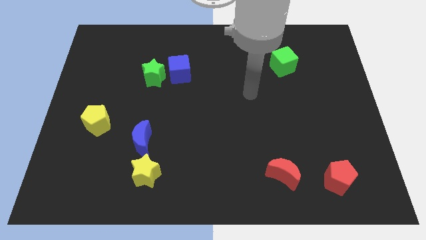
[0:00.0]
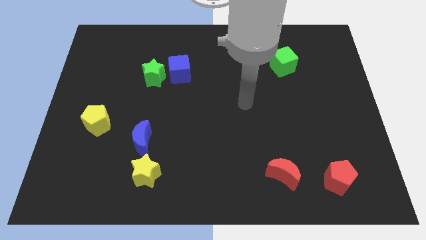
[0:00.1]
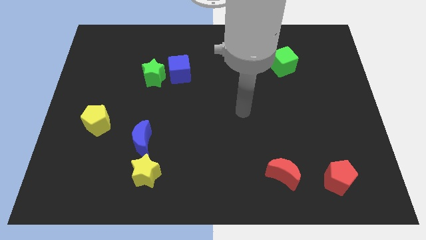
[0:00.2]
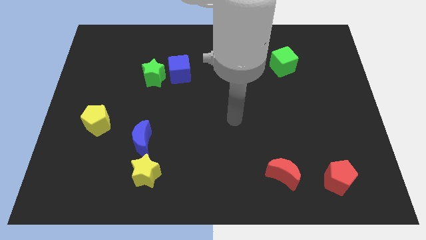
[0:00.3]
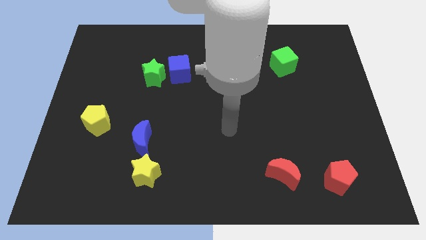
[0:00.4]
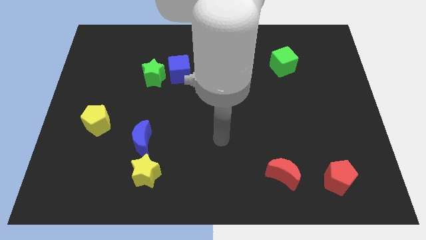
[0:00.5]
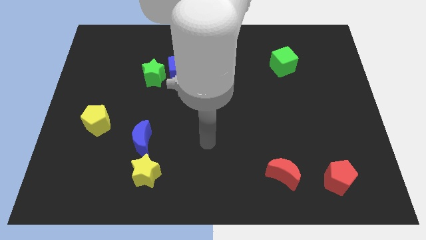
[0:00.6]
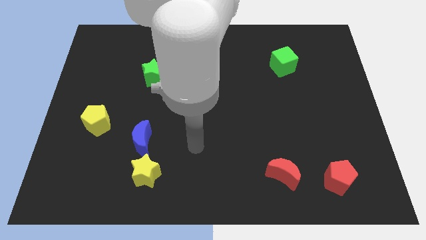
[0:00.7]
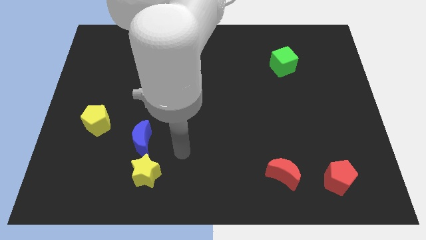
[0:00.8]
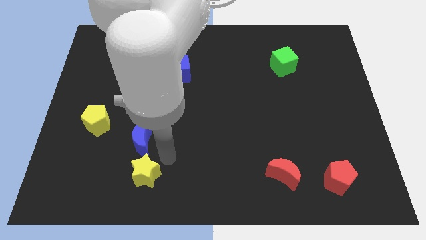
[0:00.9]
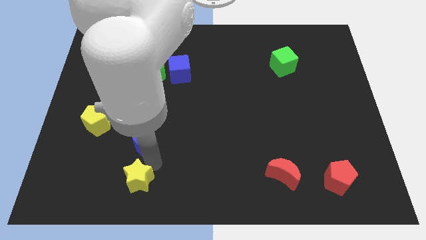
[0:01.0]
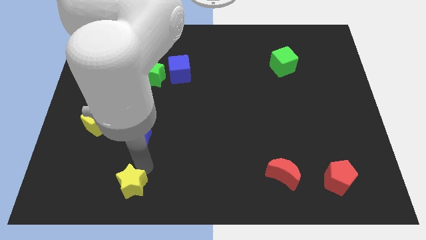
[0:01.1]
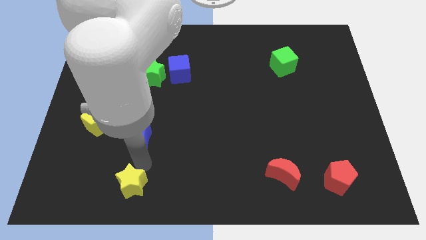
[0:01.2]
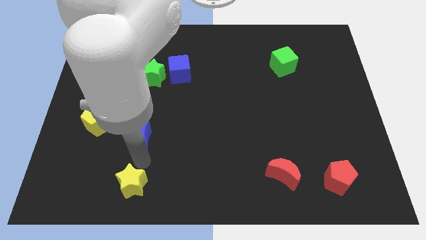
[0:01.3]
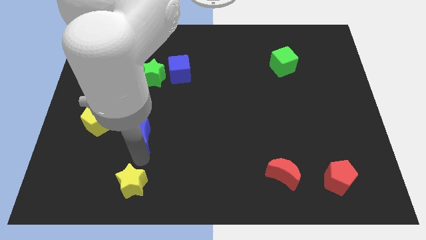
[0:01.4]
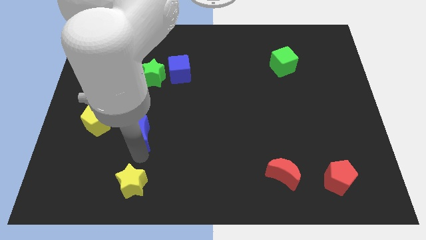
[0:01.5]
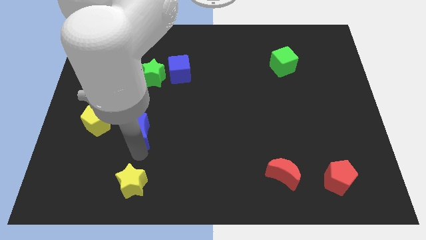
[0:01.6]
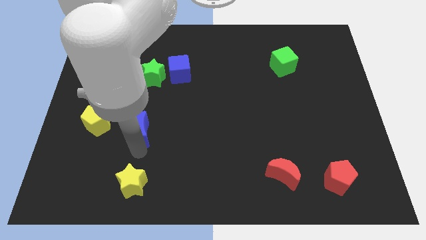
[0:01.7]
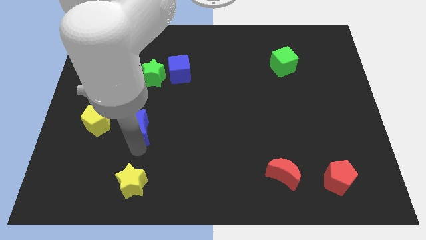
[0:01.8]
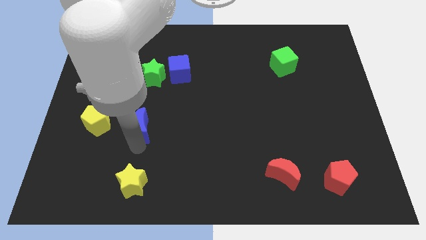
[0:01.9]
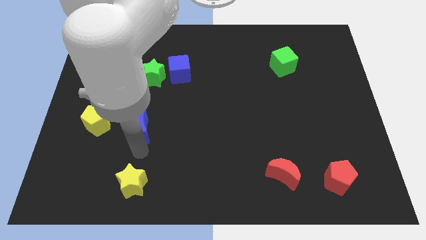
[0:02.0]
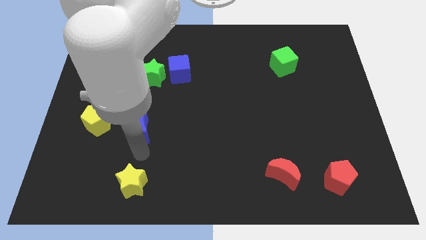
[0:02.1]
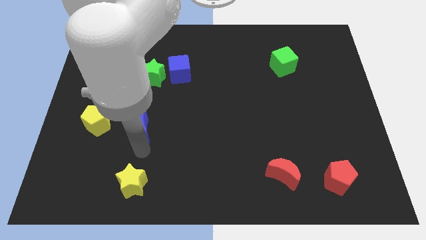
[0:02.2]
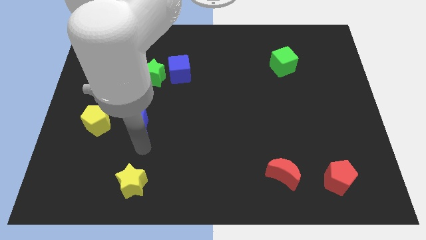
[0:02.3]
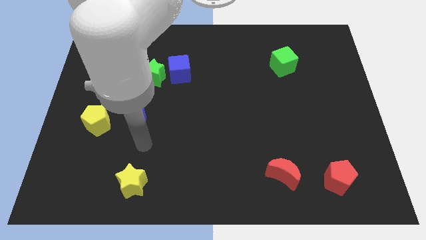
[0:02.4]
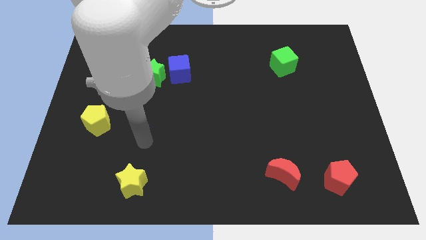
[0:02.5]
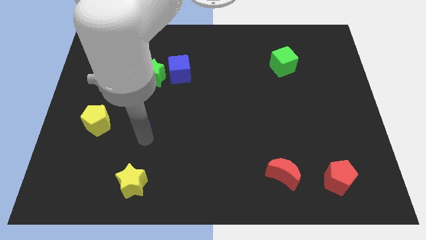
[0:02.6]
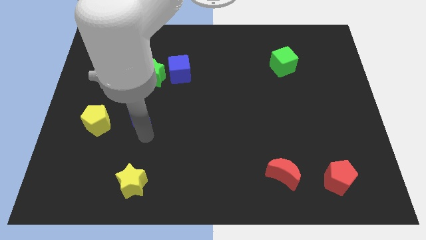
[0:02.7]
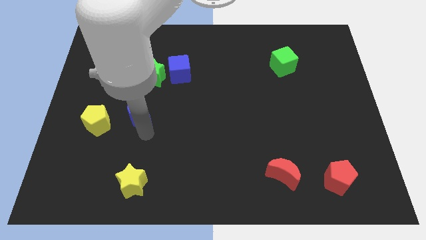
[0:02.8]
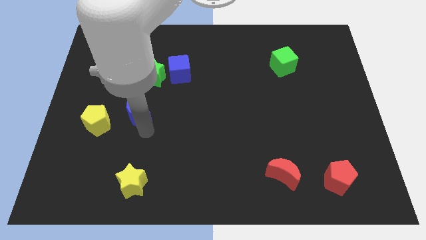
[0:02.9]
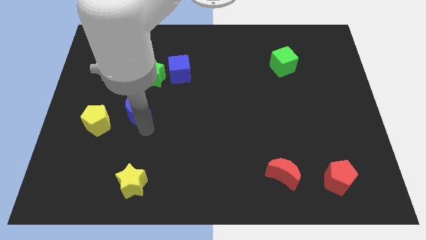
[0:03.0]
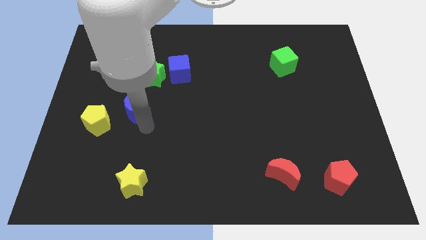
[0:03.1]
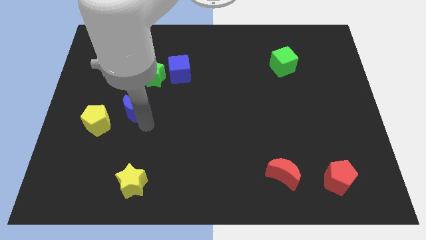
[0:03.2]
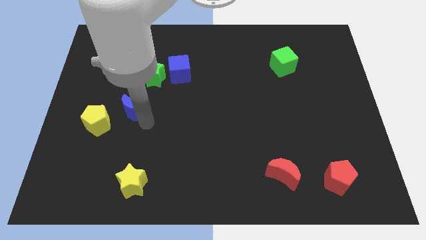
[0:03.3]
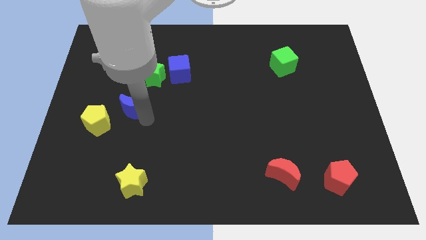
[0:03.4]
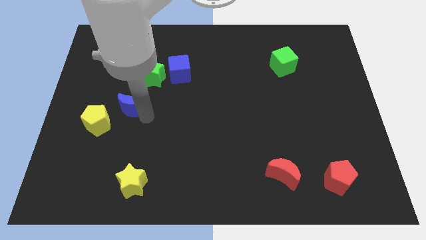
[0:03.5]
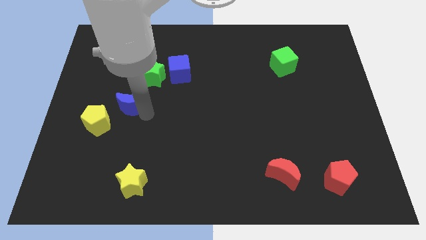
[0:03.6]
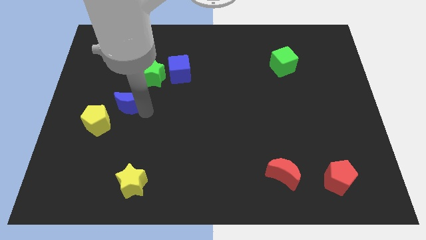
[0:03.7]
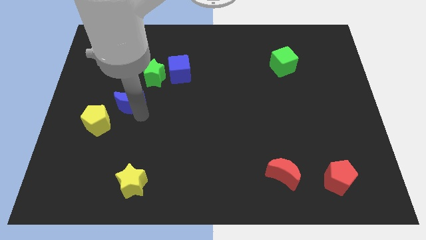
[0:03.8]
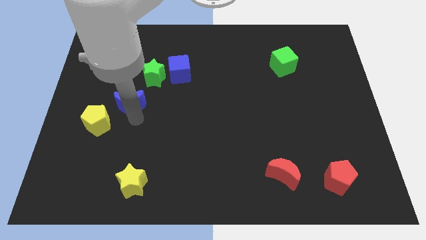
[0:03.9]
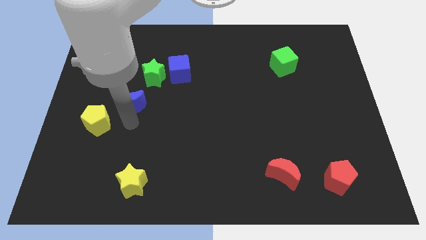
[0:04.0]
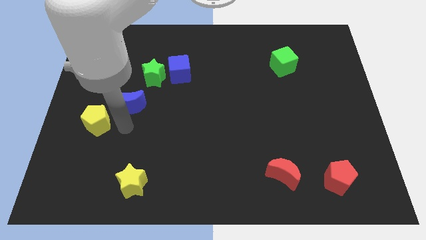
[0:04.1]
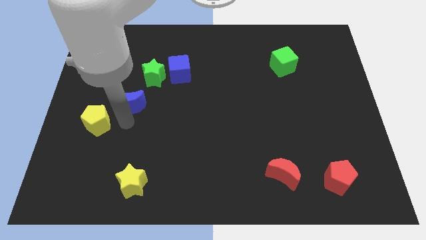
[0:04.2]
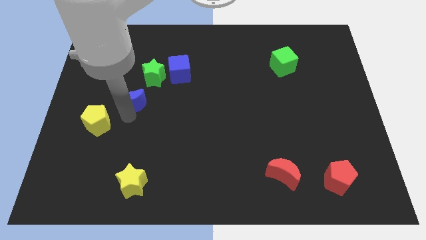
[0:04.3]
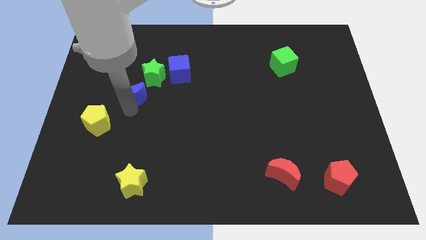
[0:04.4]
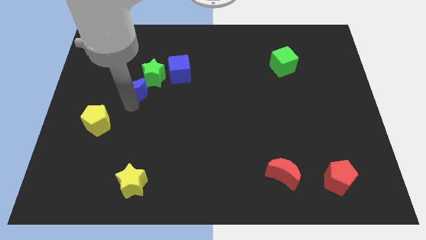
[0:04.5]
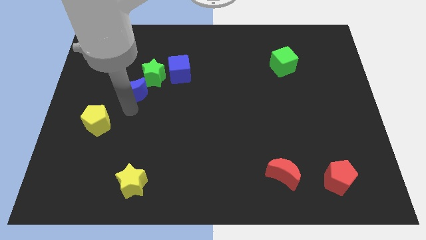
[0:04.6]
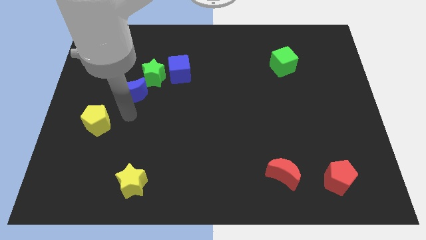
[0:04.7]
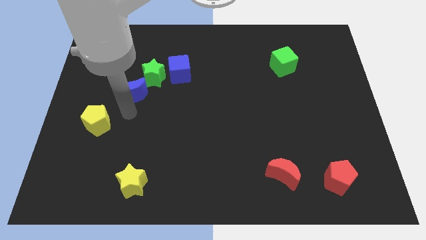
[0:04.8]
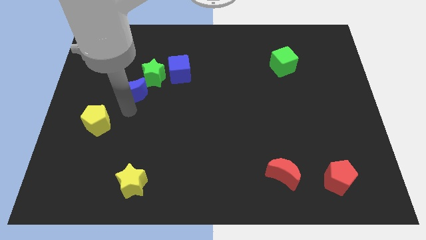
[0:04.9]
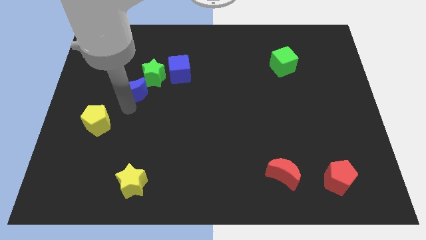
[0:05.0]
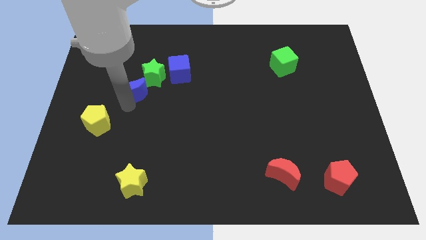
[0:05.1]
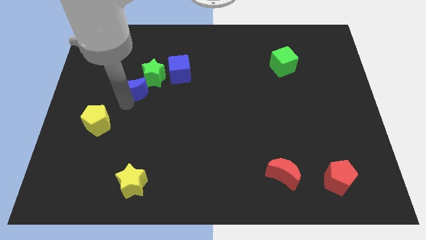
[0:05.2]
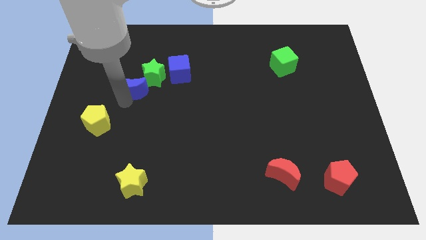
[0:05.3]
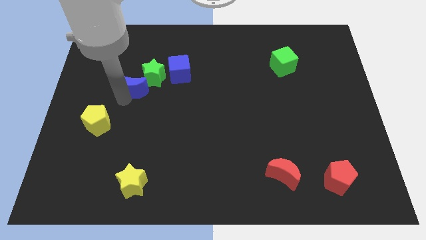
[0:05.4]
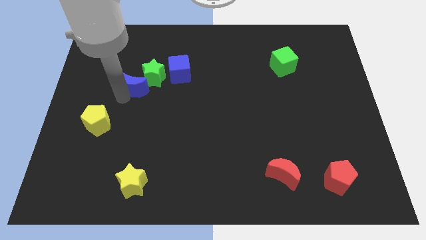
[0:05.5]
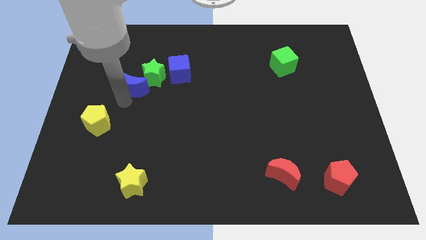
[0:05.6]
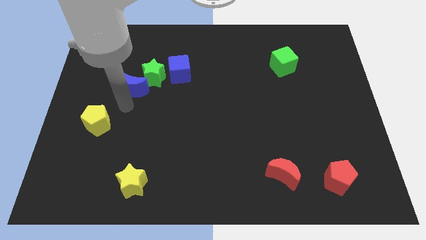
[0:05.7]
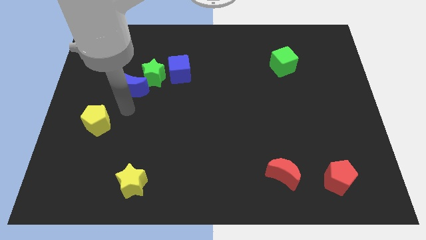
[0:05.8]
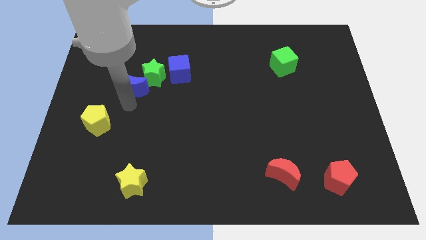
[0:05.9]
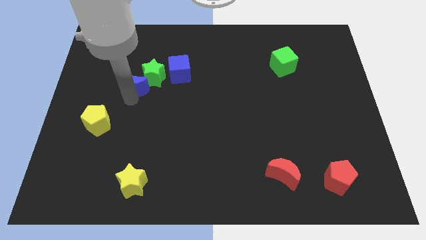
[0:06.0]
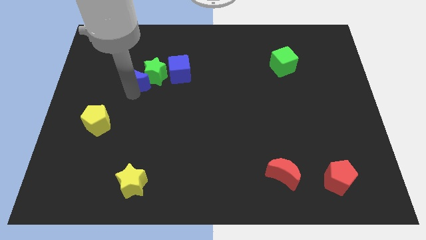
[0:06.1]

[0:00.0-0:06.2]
slide the blue moon to the left of the blue cube
